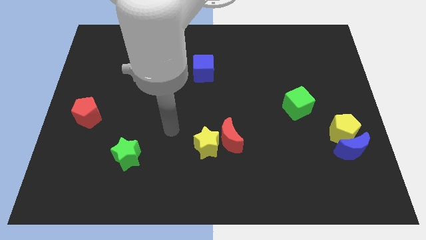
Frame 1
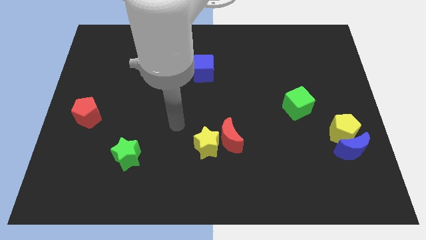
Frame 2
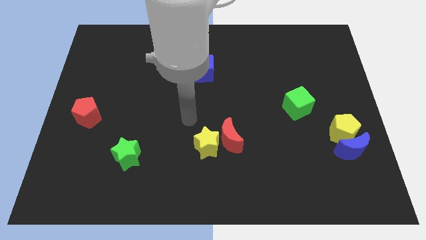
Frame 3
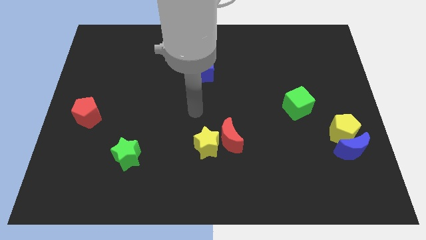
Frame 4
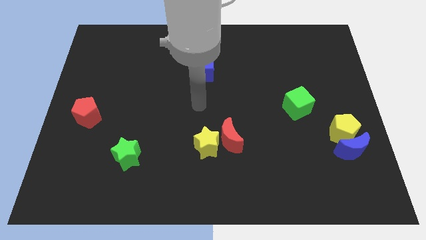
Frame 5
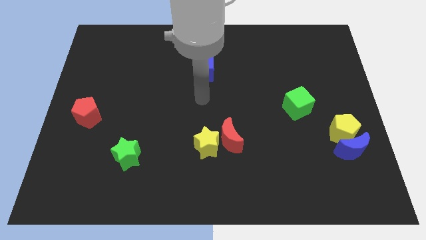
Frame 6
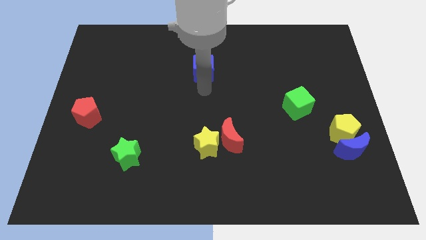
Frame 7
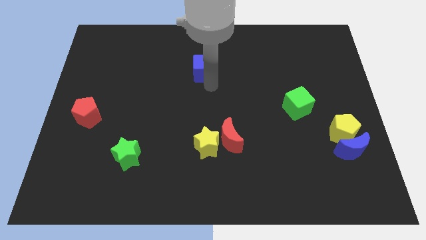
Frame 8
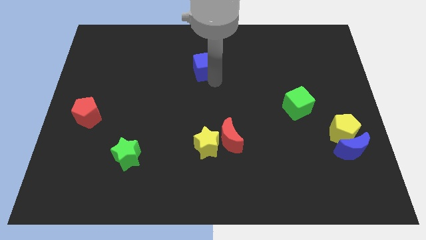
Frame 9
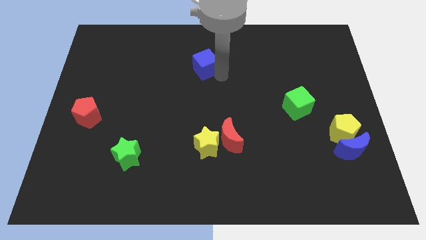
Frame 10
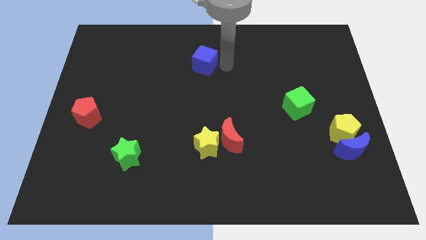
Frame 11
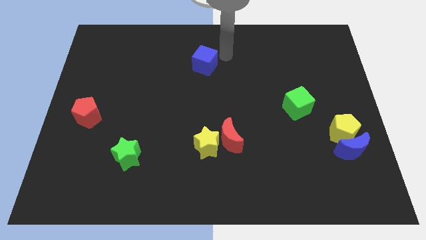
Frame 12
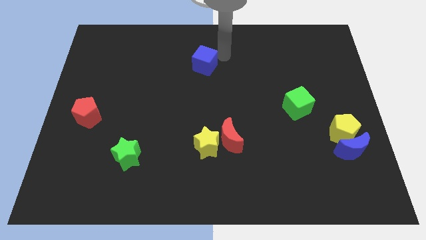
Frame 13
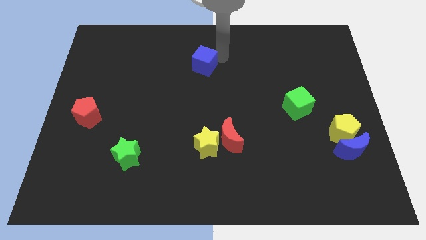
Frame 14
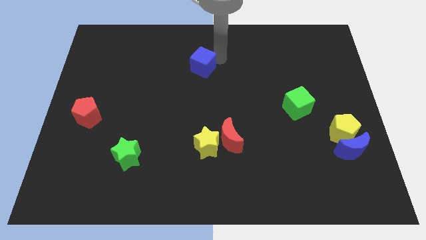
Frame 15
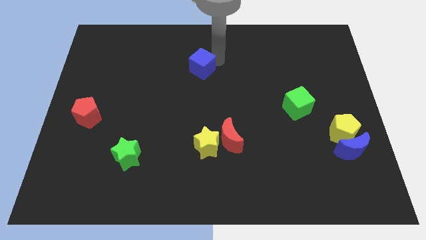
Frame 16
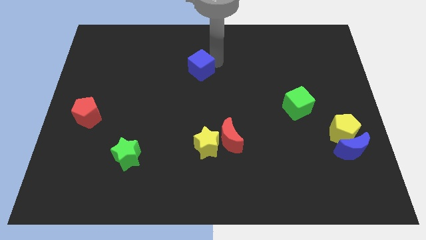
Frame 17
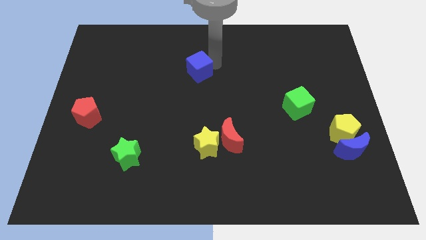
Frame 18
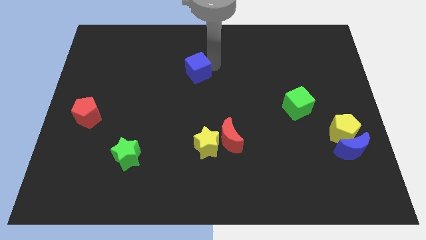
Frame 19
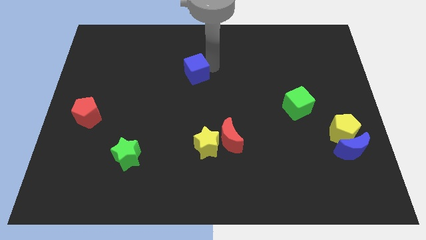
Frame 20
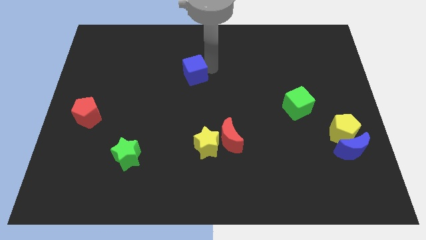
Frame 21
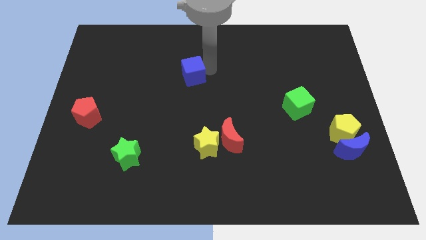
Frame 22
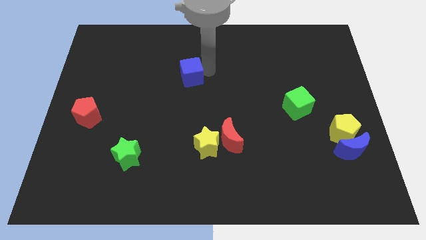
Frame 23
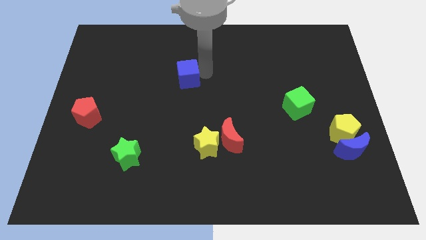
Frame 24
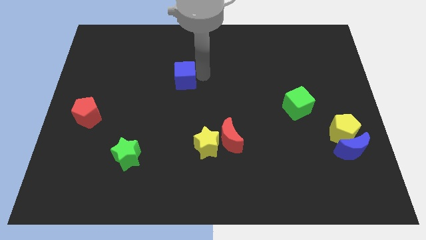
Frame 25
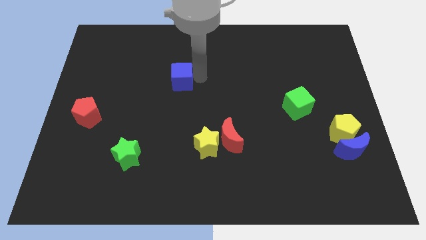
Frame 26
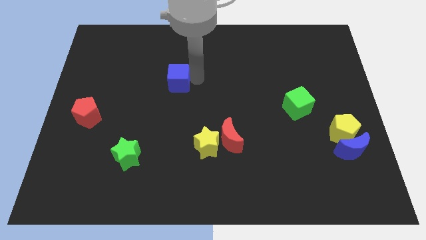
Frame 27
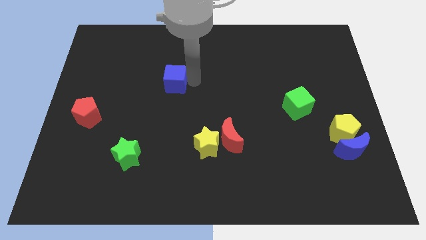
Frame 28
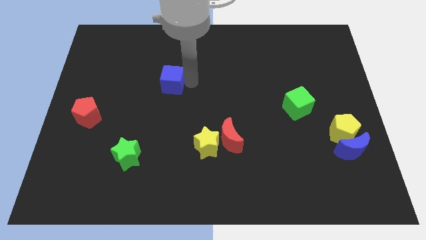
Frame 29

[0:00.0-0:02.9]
push the blue cube a little to the left

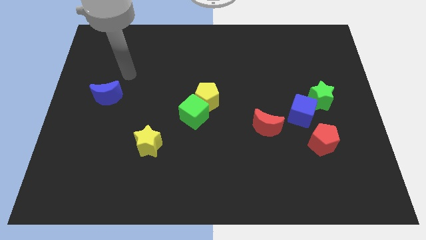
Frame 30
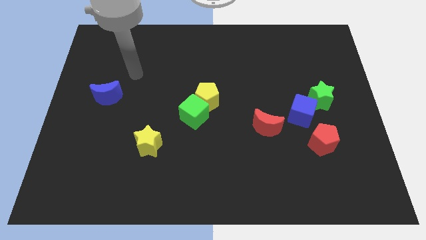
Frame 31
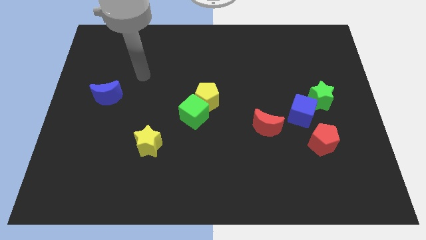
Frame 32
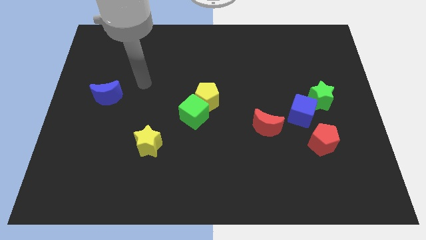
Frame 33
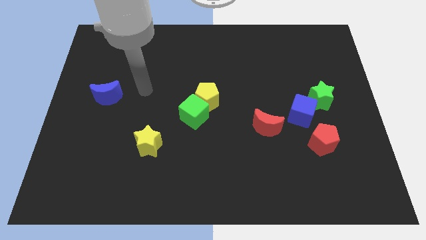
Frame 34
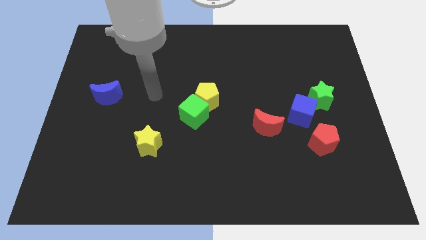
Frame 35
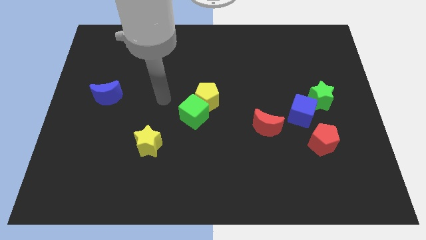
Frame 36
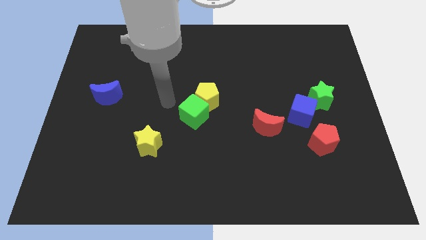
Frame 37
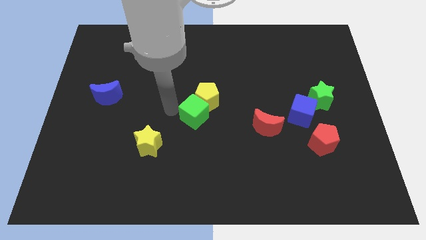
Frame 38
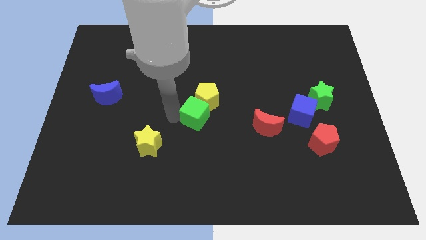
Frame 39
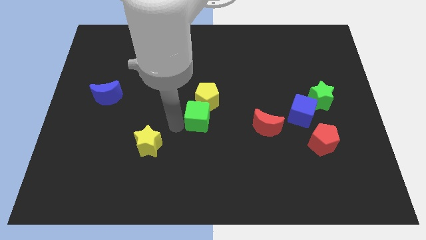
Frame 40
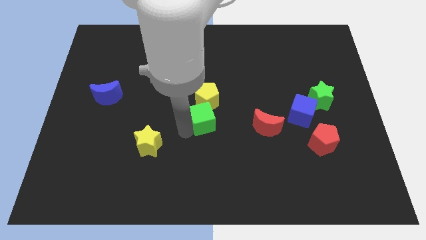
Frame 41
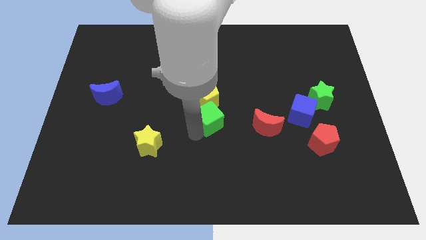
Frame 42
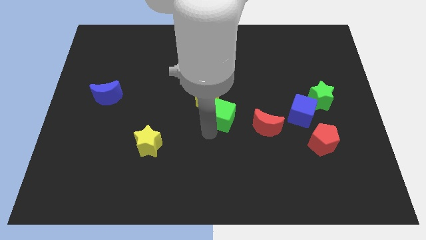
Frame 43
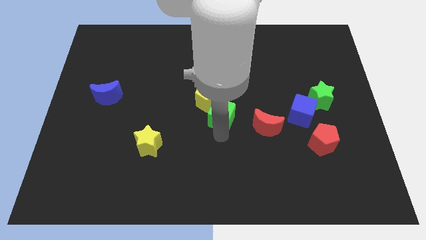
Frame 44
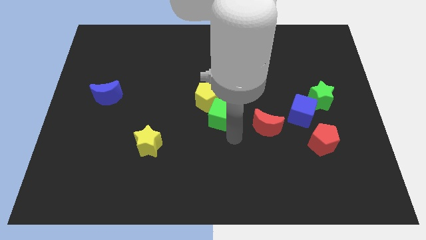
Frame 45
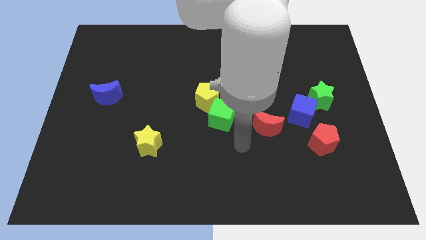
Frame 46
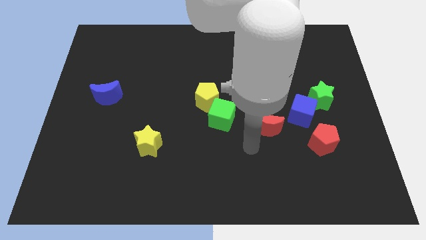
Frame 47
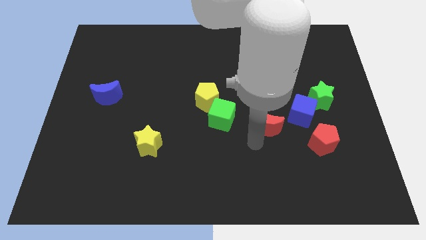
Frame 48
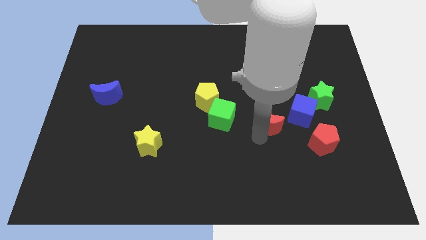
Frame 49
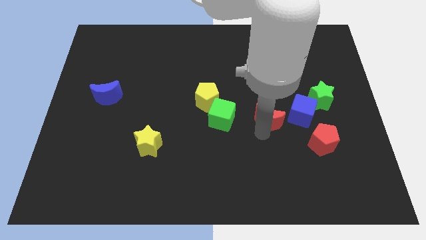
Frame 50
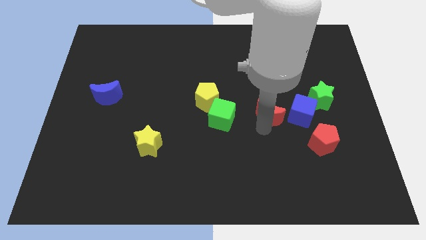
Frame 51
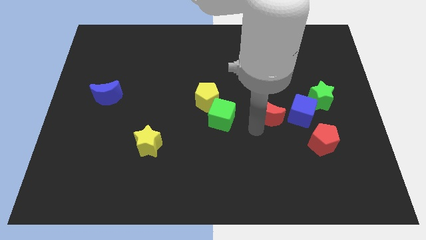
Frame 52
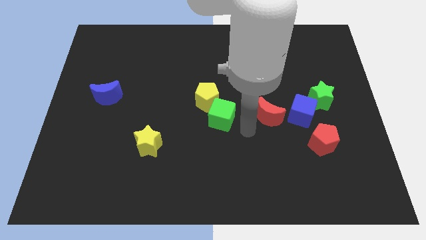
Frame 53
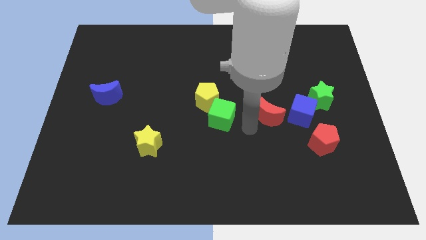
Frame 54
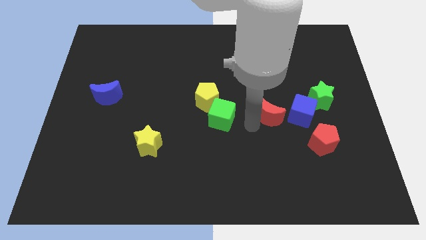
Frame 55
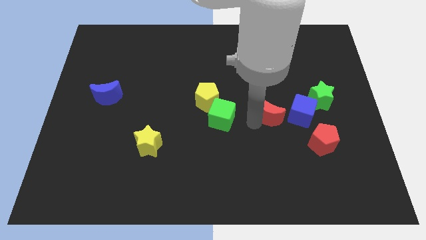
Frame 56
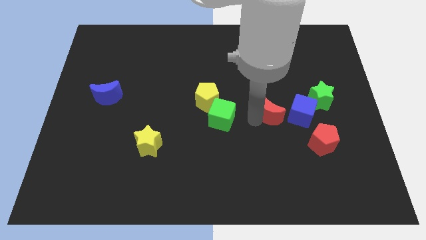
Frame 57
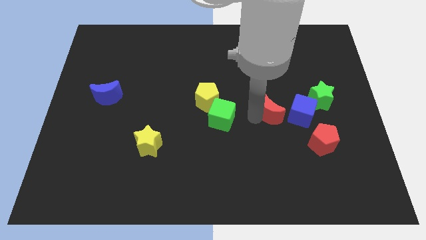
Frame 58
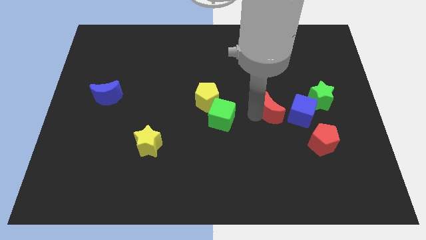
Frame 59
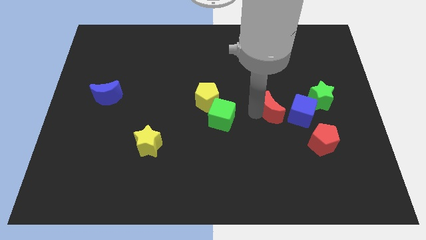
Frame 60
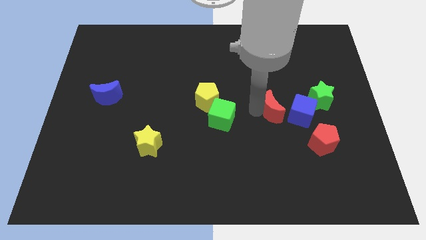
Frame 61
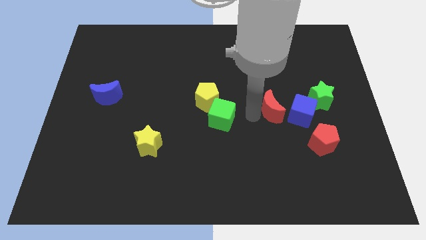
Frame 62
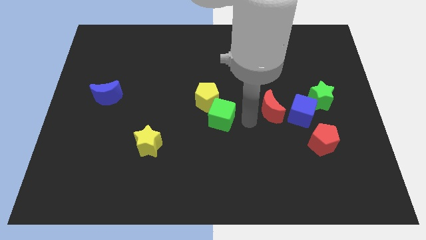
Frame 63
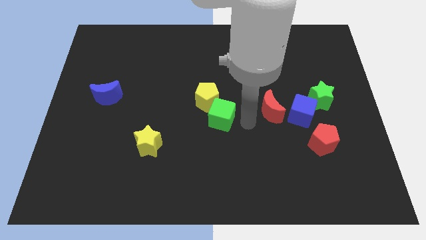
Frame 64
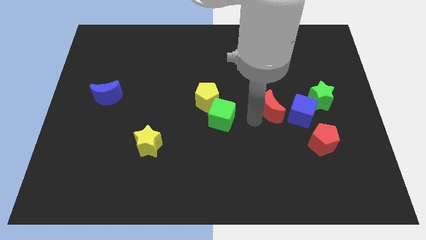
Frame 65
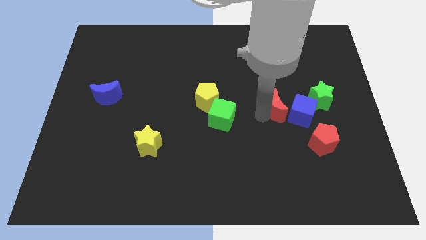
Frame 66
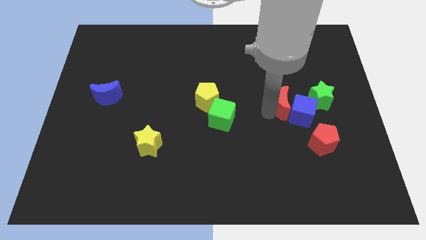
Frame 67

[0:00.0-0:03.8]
move the red moon up and right a little

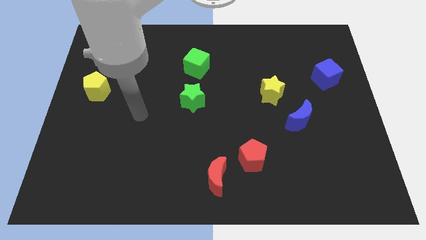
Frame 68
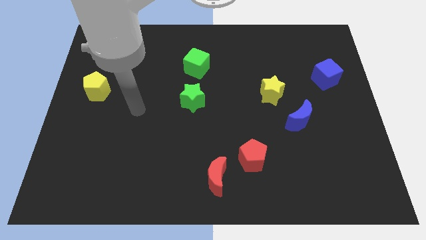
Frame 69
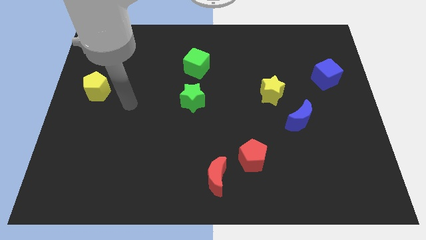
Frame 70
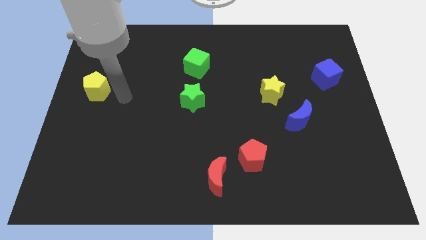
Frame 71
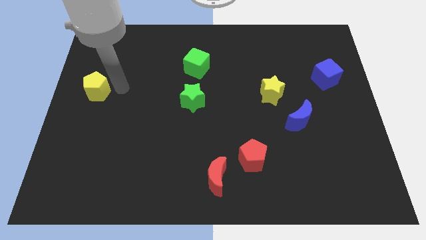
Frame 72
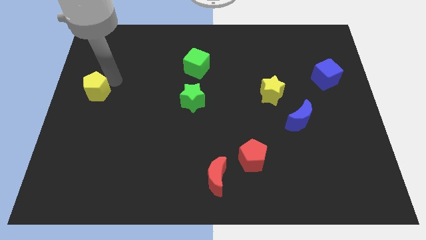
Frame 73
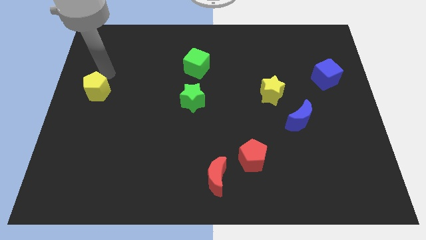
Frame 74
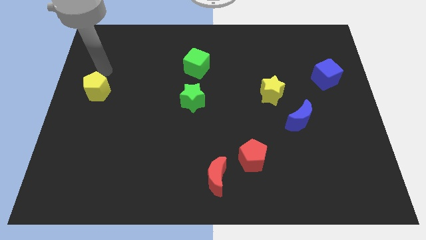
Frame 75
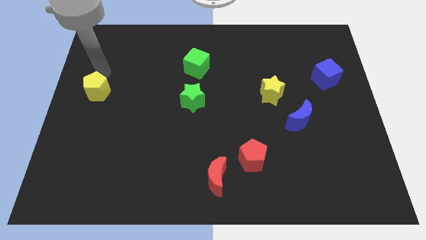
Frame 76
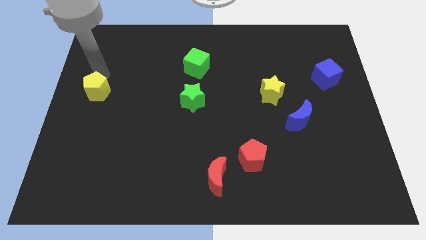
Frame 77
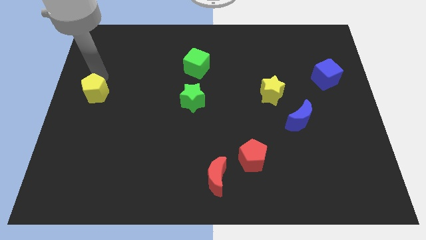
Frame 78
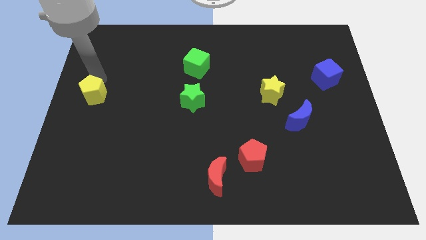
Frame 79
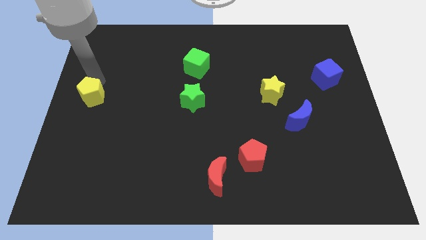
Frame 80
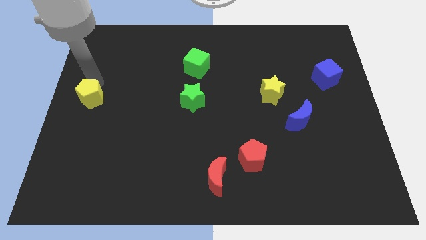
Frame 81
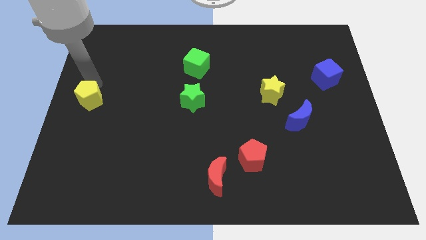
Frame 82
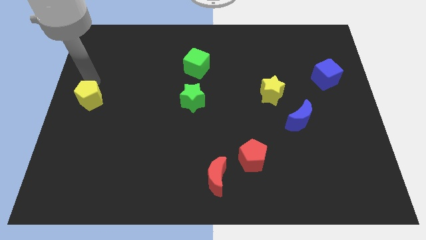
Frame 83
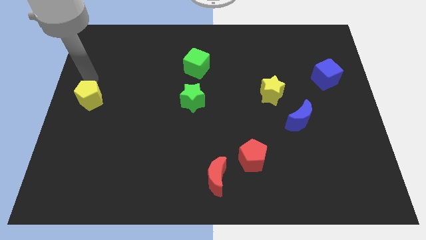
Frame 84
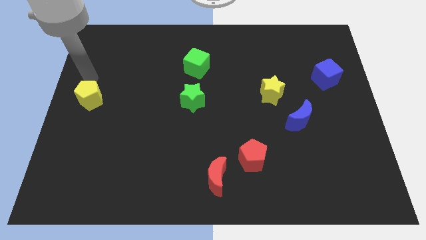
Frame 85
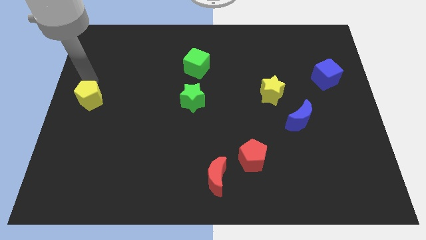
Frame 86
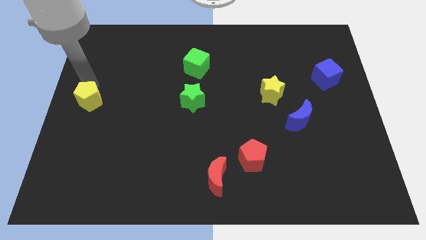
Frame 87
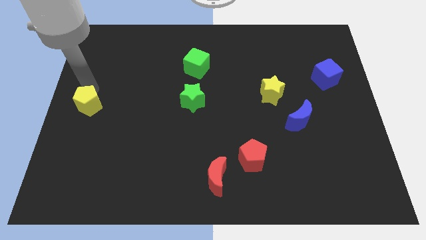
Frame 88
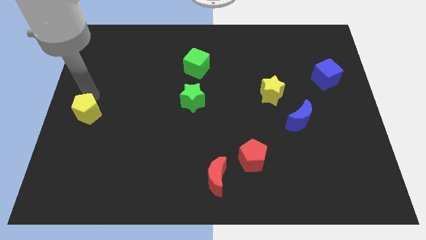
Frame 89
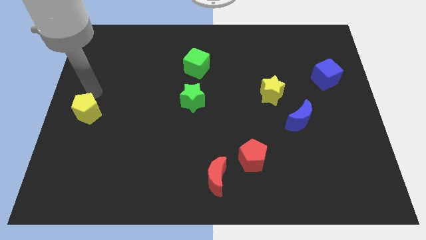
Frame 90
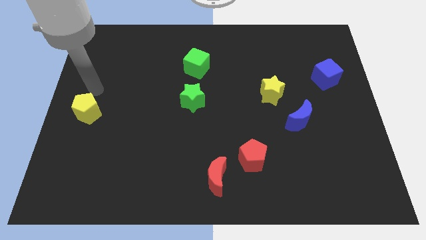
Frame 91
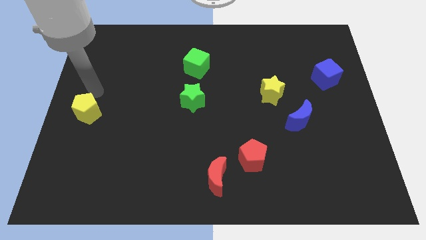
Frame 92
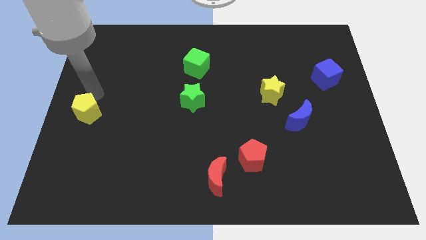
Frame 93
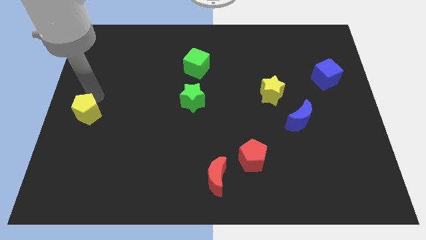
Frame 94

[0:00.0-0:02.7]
slide the yellow pentagon somewhat down
